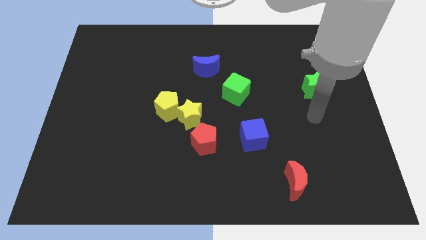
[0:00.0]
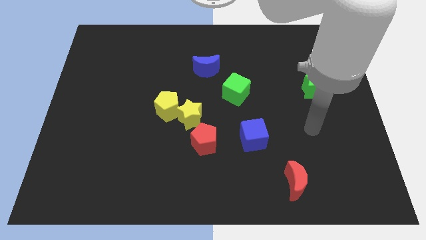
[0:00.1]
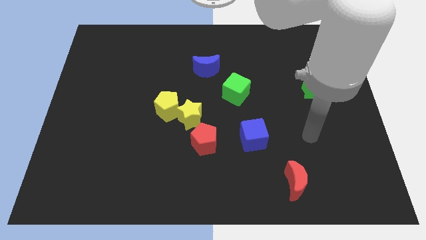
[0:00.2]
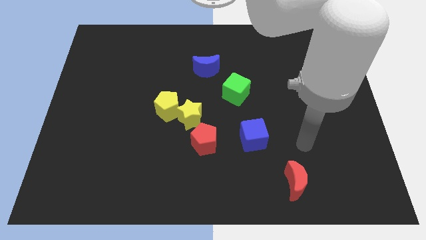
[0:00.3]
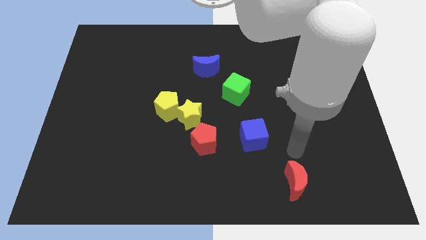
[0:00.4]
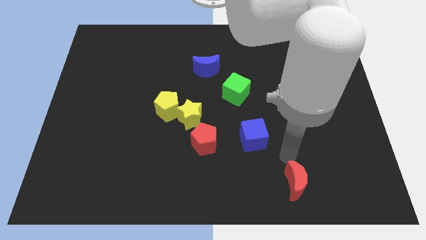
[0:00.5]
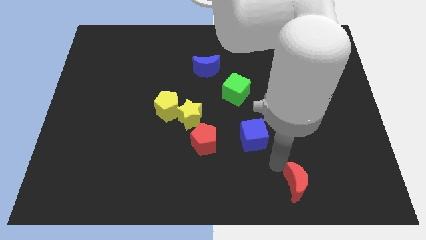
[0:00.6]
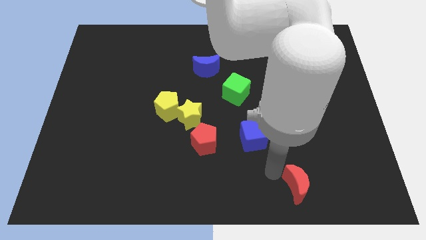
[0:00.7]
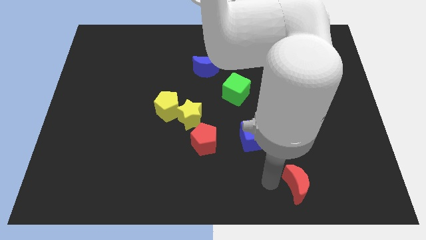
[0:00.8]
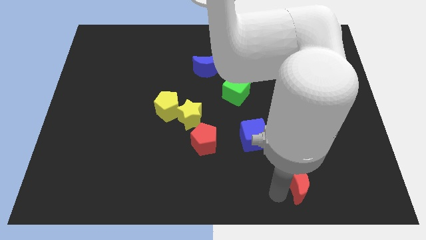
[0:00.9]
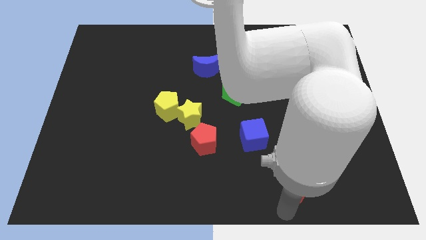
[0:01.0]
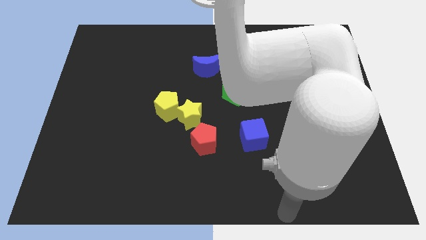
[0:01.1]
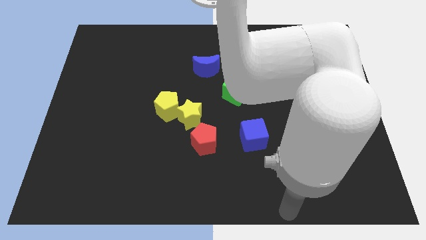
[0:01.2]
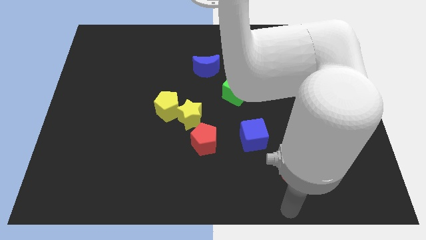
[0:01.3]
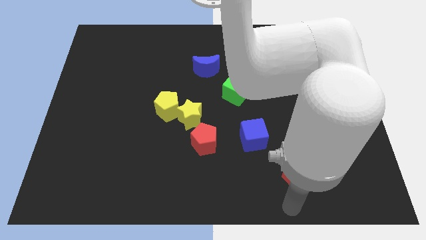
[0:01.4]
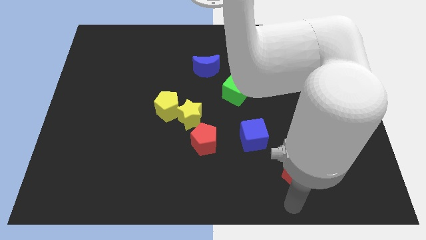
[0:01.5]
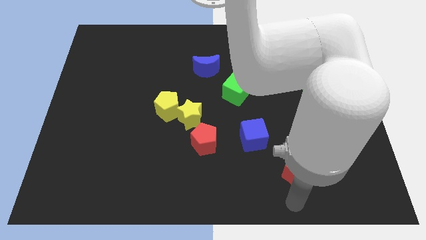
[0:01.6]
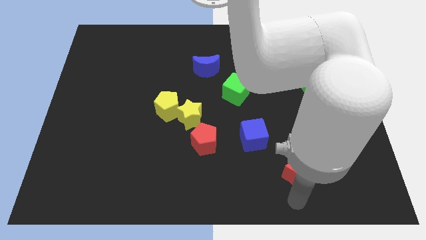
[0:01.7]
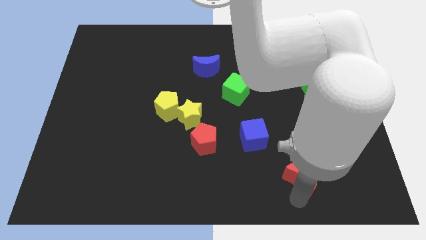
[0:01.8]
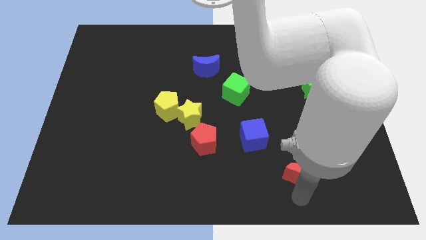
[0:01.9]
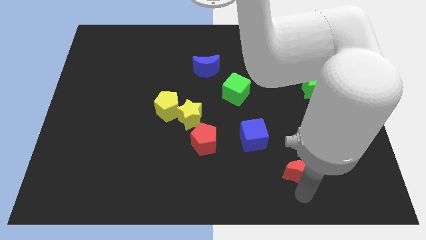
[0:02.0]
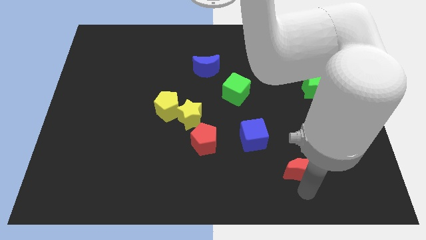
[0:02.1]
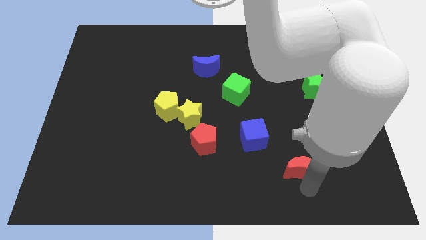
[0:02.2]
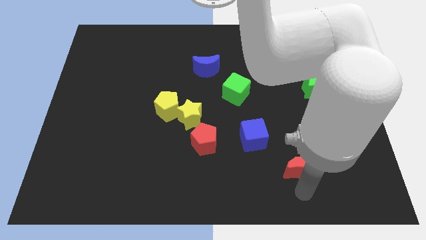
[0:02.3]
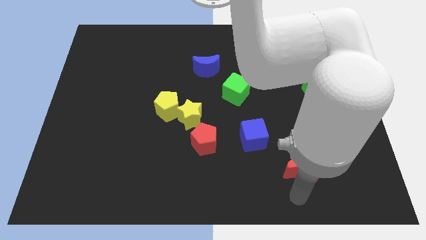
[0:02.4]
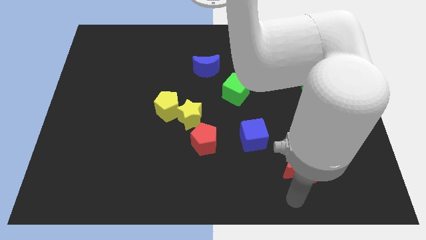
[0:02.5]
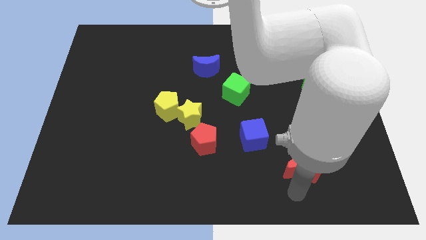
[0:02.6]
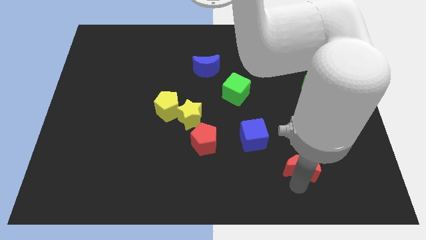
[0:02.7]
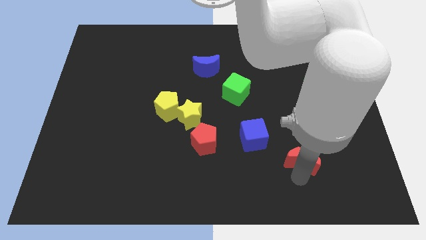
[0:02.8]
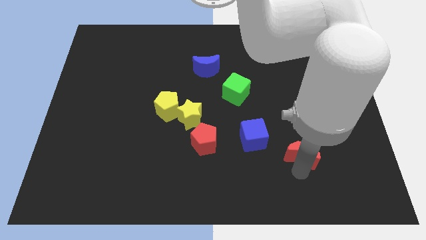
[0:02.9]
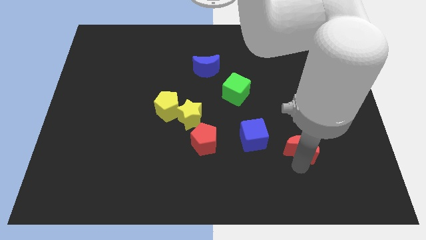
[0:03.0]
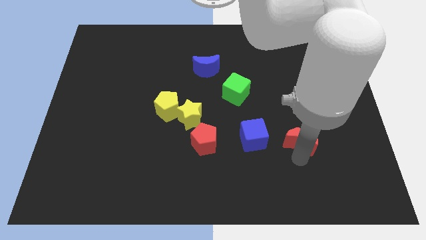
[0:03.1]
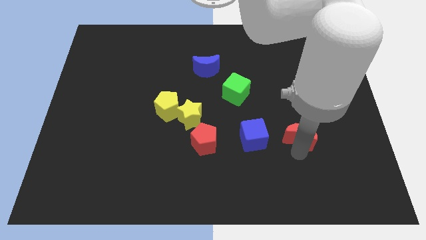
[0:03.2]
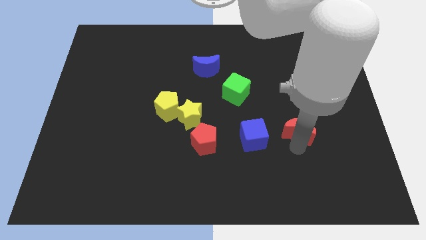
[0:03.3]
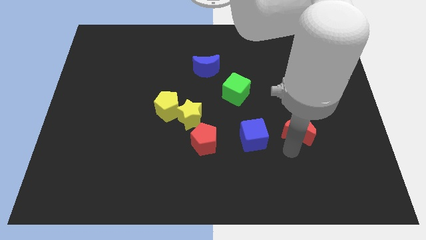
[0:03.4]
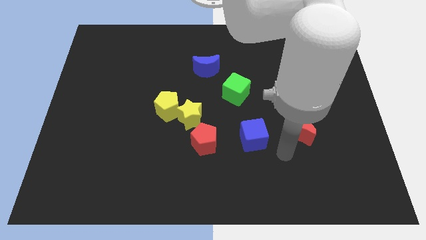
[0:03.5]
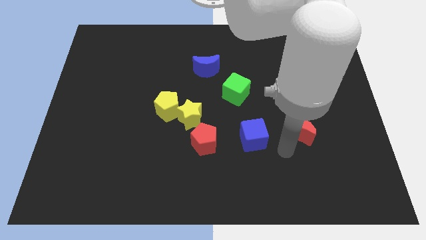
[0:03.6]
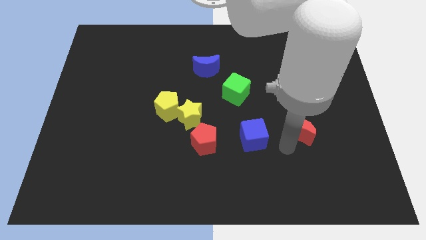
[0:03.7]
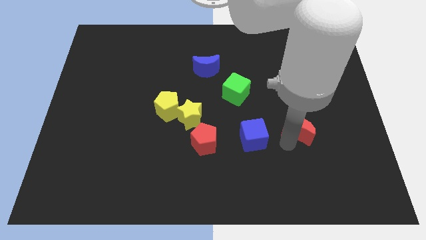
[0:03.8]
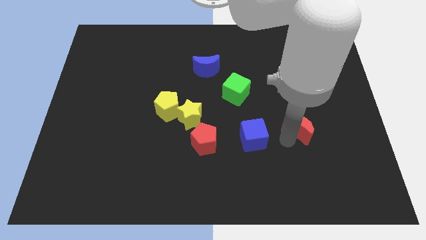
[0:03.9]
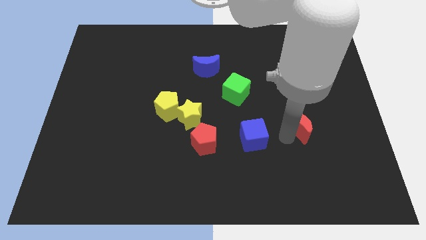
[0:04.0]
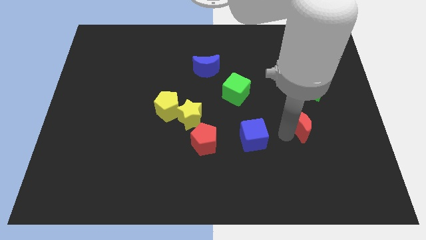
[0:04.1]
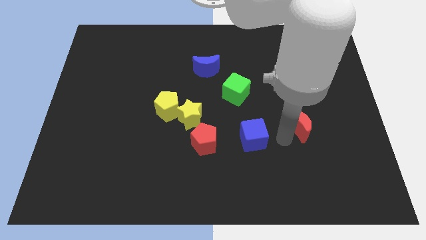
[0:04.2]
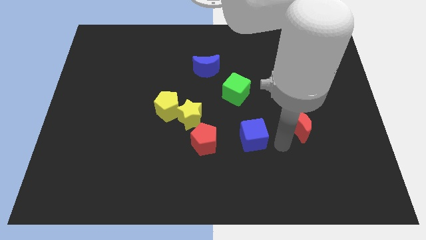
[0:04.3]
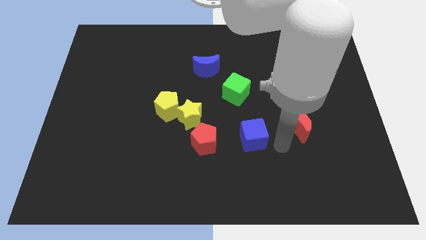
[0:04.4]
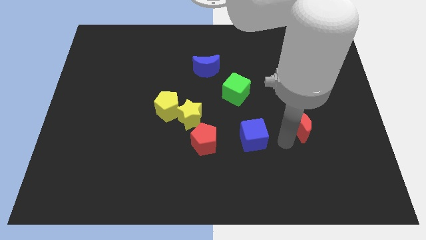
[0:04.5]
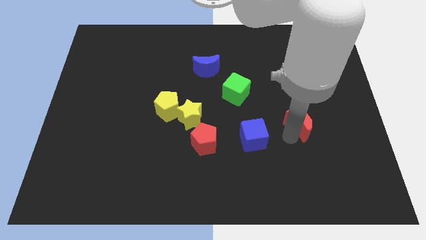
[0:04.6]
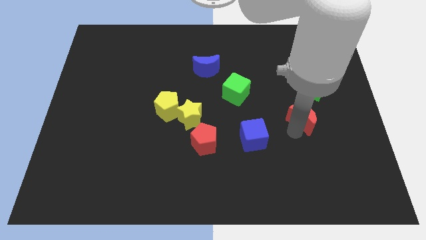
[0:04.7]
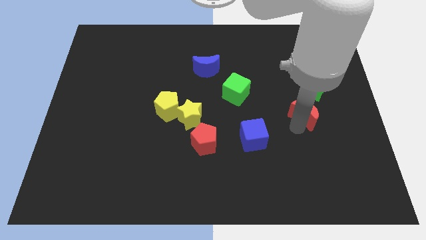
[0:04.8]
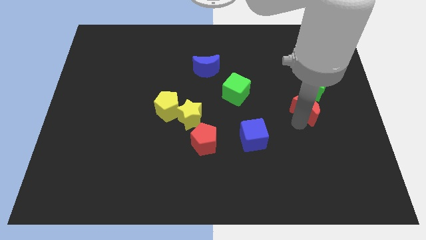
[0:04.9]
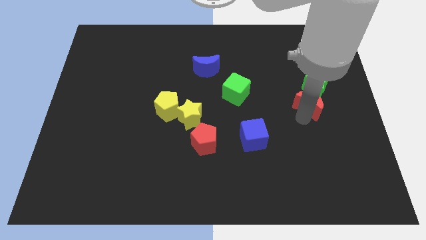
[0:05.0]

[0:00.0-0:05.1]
move the red moon to the green star

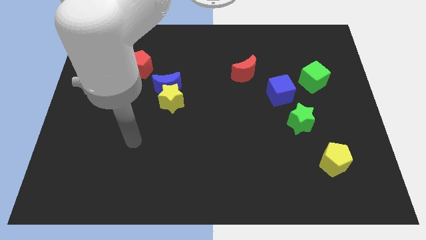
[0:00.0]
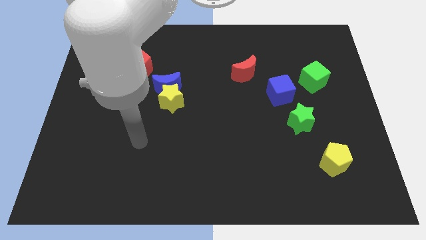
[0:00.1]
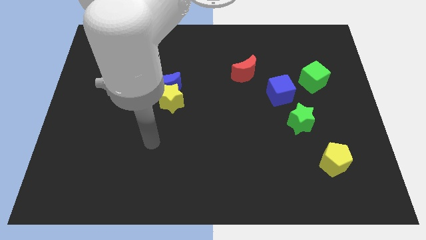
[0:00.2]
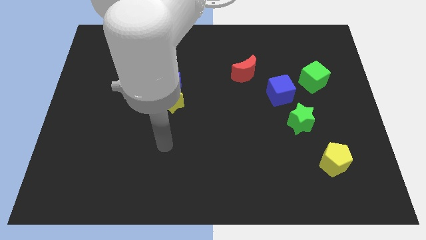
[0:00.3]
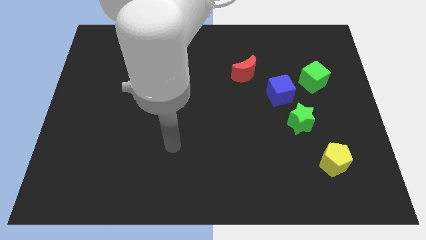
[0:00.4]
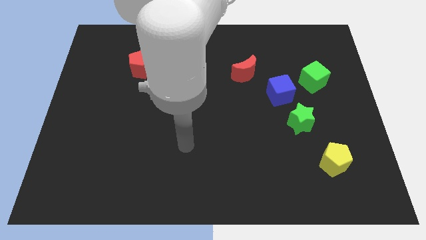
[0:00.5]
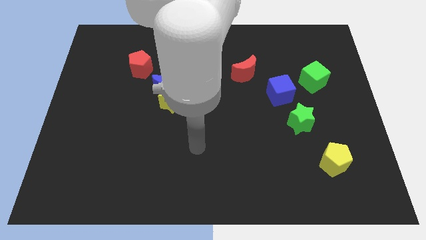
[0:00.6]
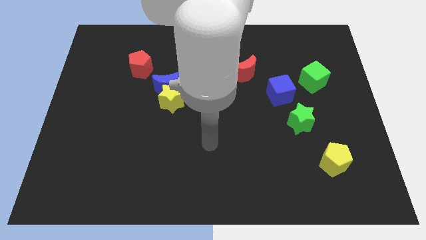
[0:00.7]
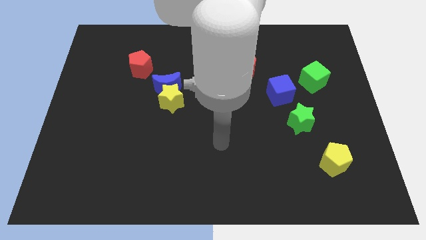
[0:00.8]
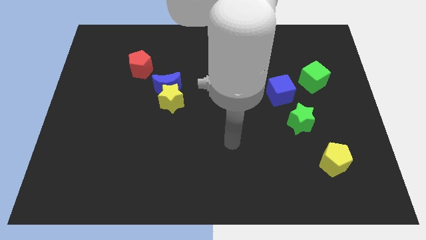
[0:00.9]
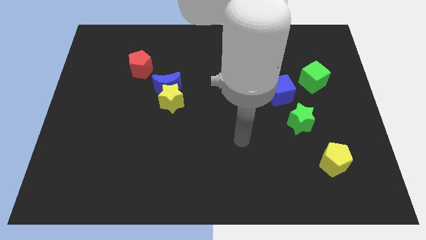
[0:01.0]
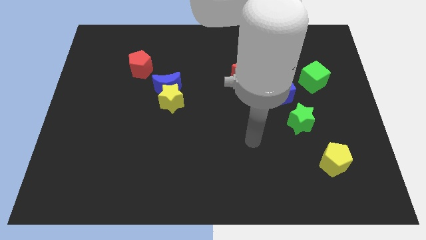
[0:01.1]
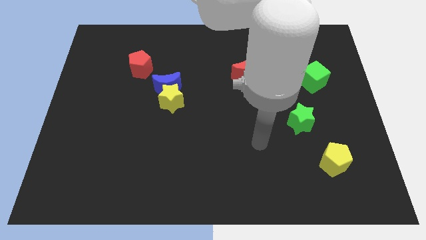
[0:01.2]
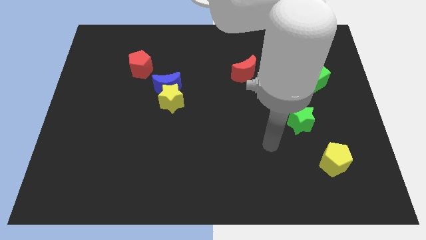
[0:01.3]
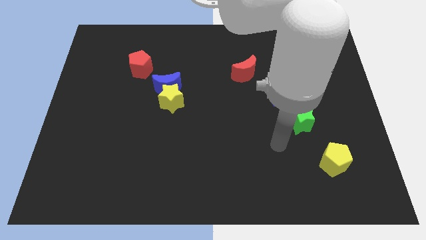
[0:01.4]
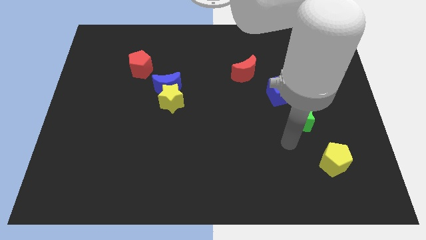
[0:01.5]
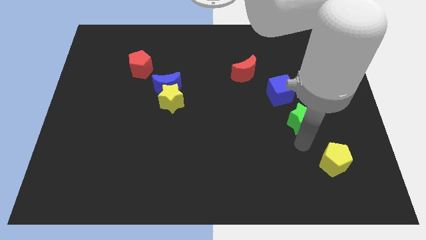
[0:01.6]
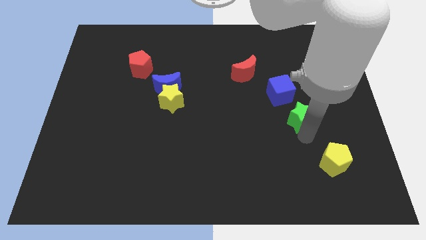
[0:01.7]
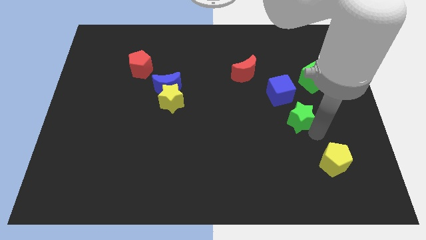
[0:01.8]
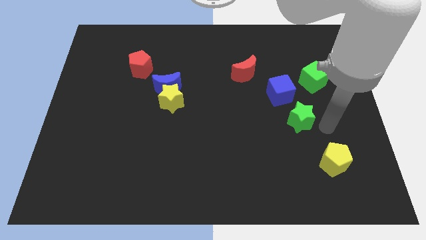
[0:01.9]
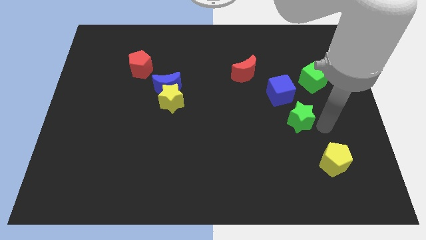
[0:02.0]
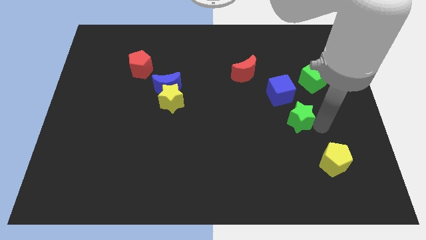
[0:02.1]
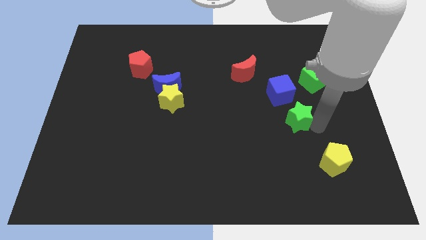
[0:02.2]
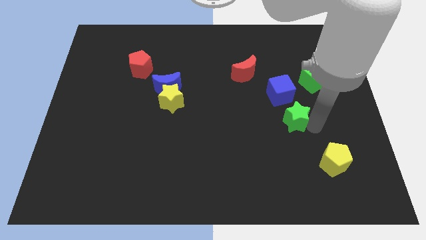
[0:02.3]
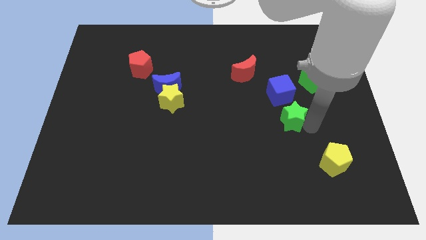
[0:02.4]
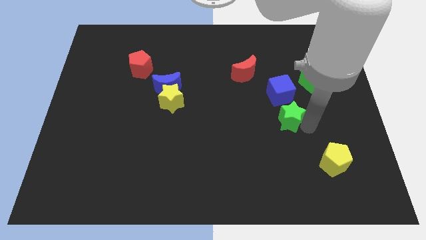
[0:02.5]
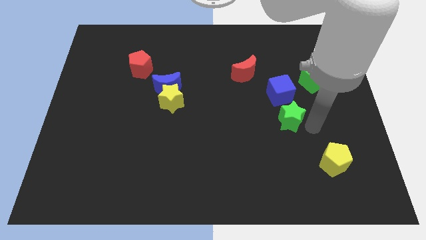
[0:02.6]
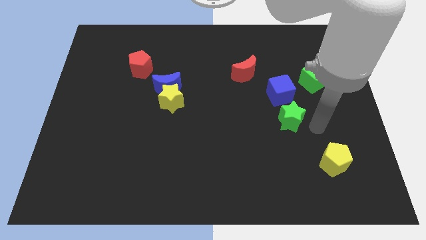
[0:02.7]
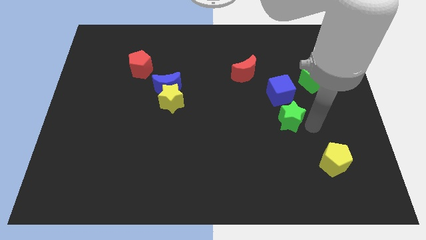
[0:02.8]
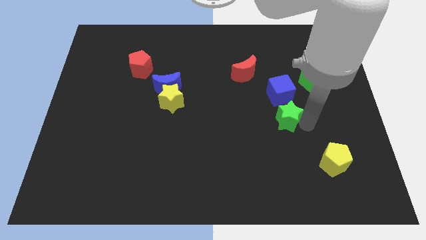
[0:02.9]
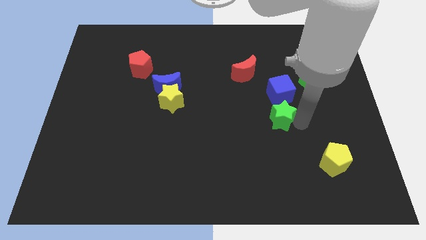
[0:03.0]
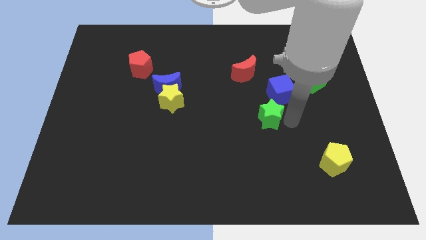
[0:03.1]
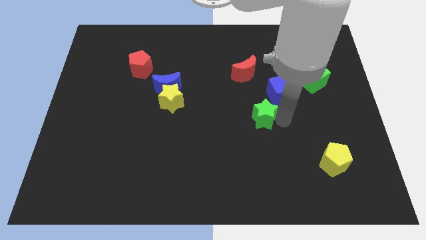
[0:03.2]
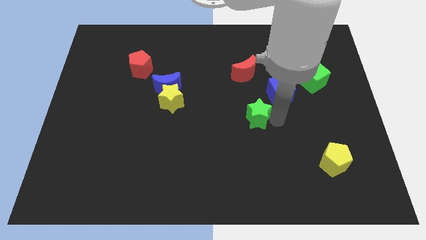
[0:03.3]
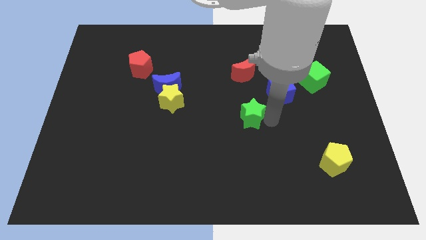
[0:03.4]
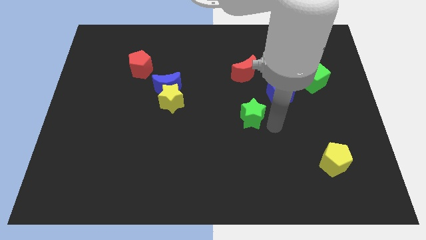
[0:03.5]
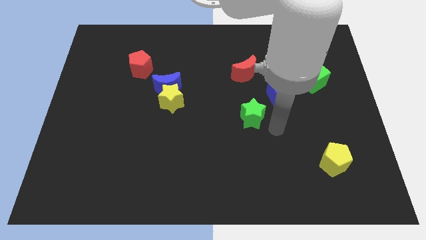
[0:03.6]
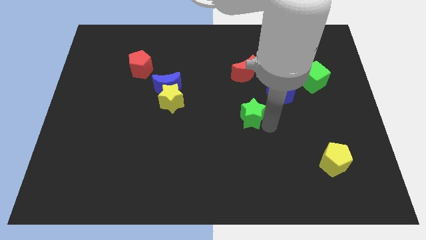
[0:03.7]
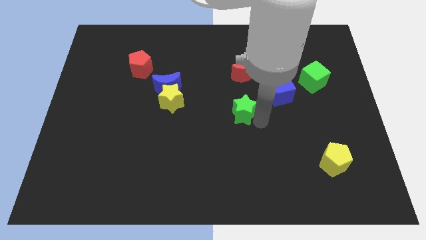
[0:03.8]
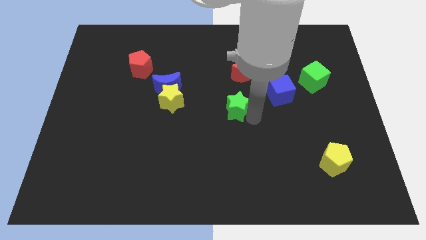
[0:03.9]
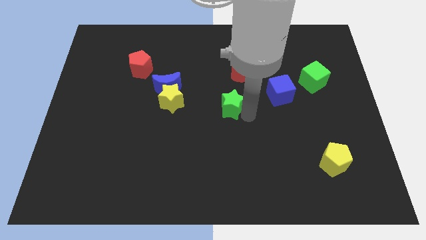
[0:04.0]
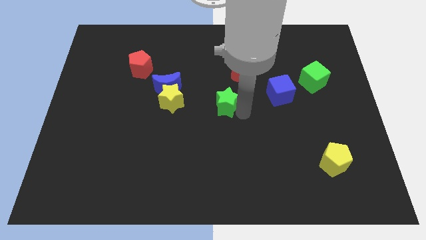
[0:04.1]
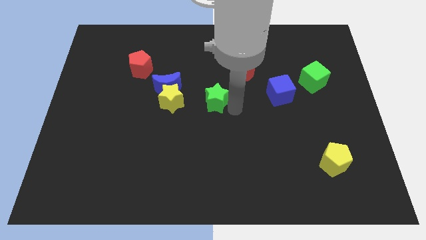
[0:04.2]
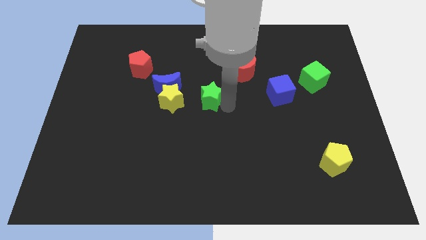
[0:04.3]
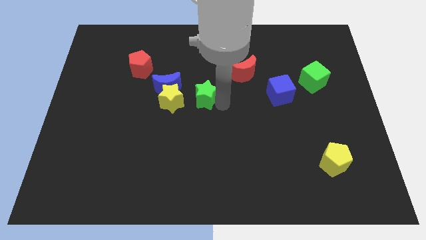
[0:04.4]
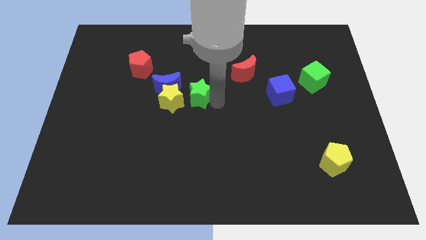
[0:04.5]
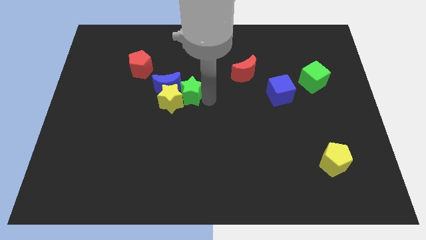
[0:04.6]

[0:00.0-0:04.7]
slide the green star to the blue moon
